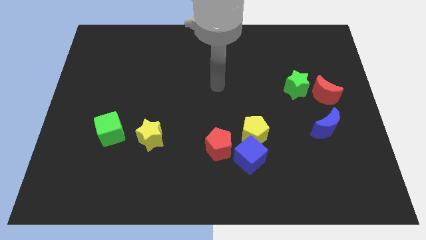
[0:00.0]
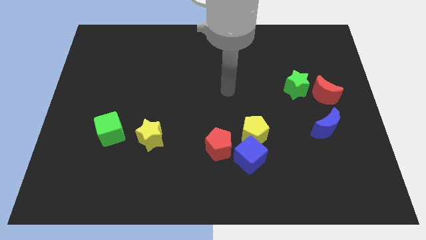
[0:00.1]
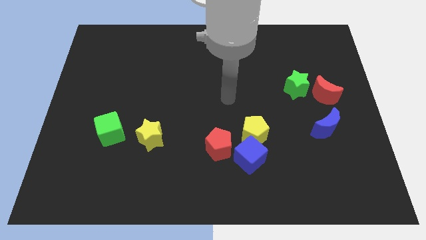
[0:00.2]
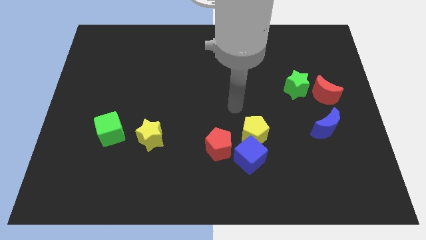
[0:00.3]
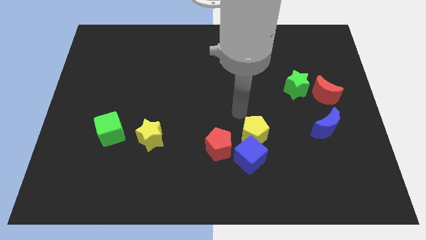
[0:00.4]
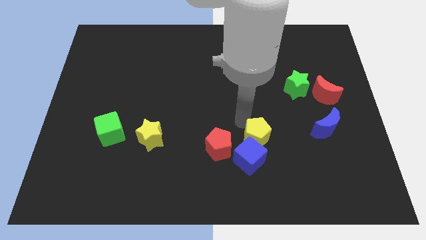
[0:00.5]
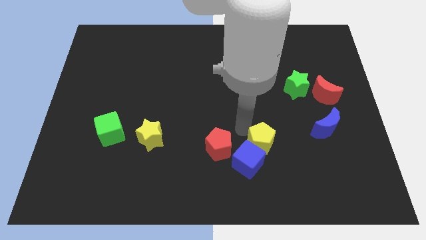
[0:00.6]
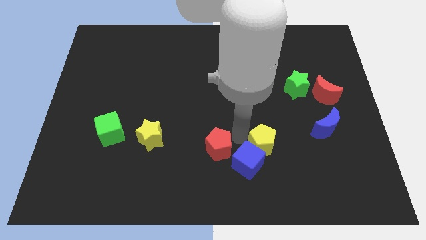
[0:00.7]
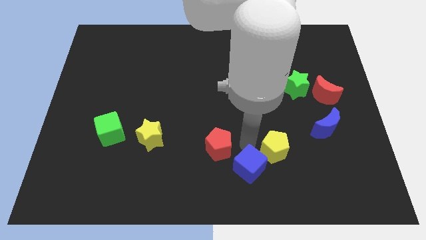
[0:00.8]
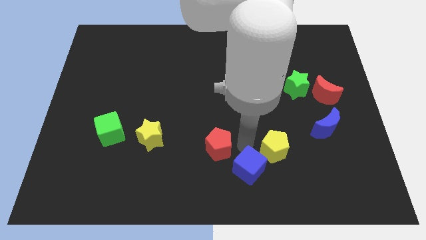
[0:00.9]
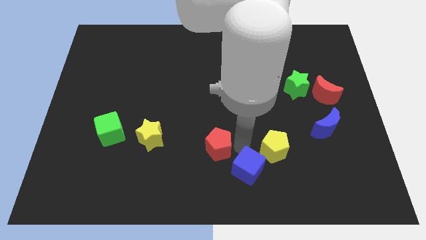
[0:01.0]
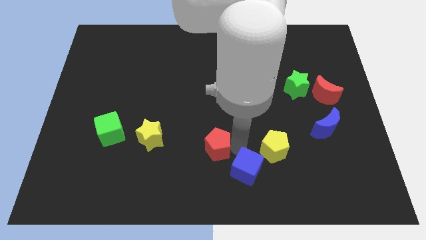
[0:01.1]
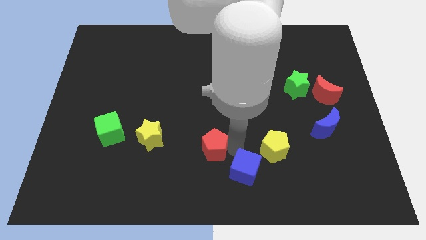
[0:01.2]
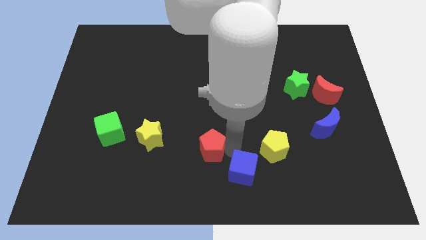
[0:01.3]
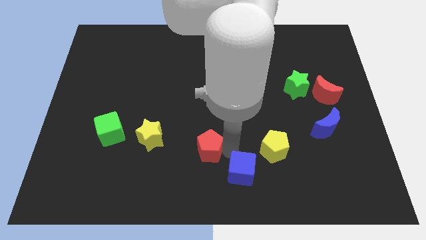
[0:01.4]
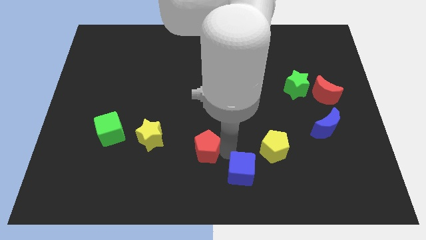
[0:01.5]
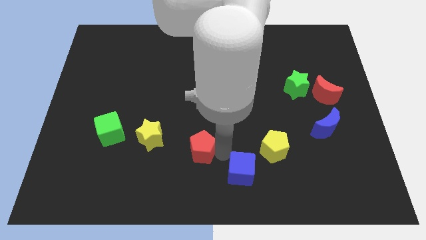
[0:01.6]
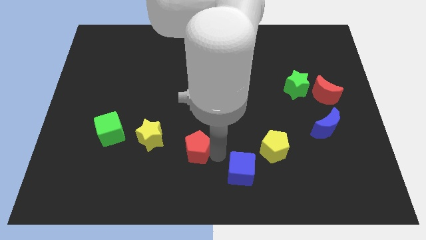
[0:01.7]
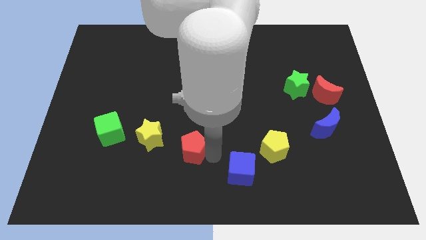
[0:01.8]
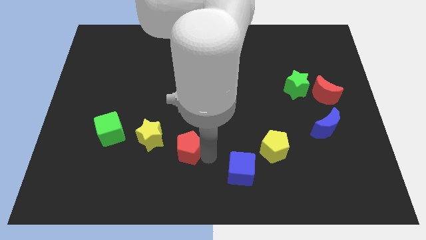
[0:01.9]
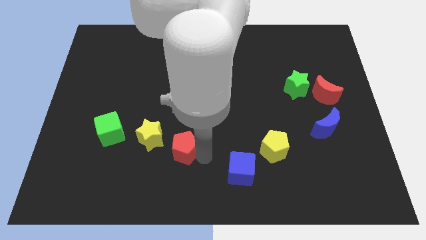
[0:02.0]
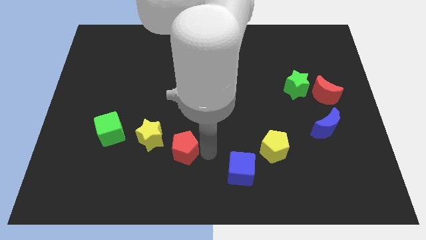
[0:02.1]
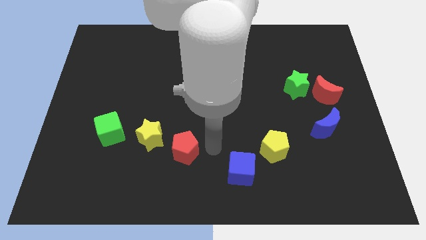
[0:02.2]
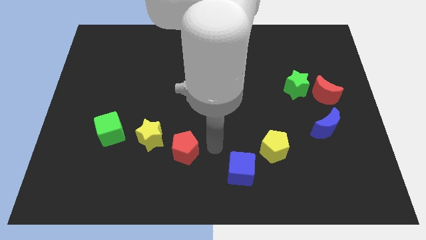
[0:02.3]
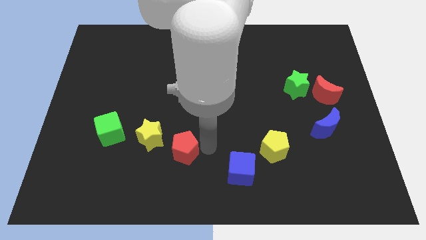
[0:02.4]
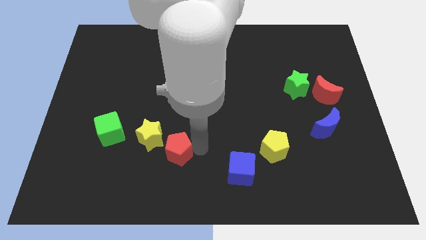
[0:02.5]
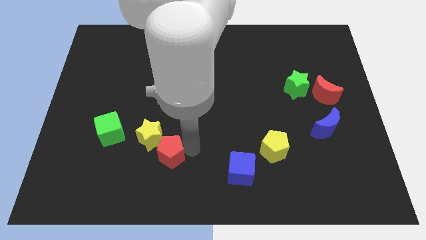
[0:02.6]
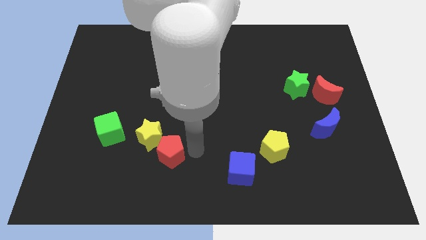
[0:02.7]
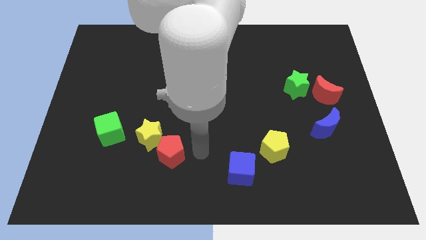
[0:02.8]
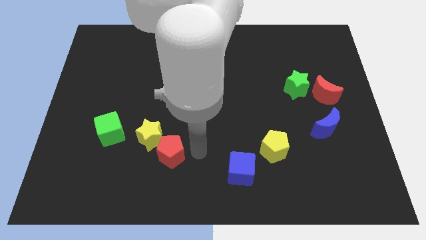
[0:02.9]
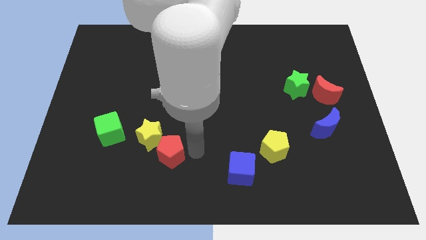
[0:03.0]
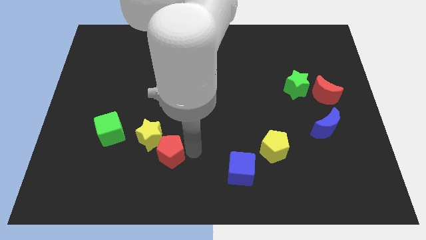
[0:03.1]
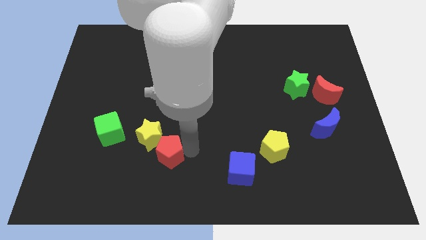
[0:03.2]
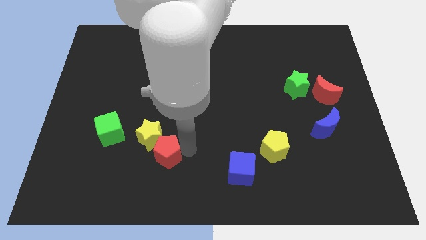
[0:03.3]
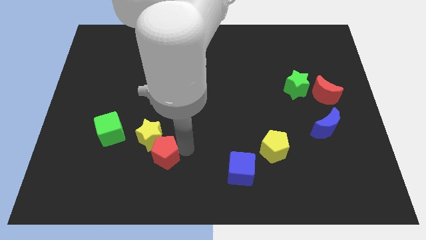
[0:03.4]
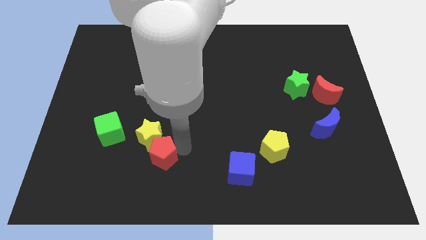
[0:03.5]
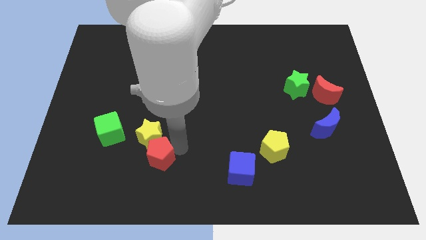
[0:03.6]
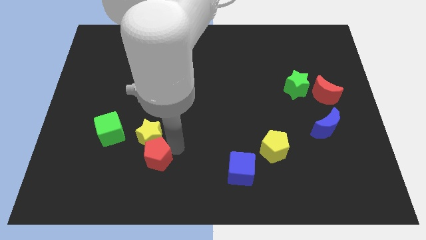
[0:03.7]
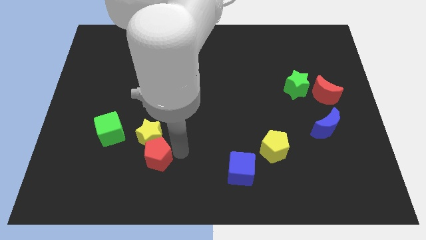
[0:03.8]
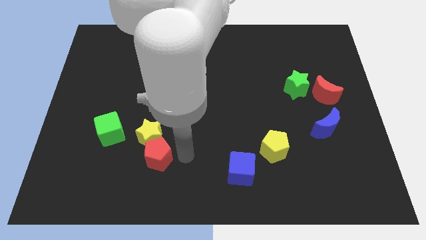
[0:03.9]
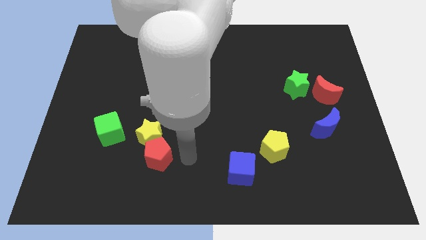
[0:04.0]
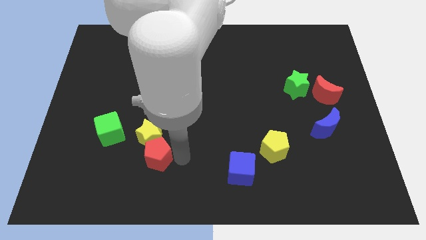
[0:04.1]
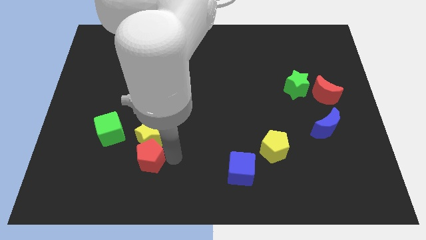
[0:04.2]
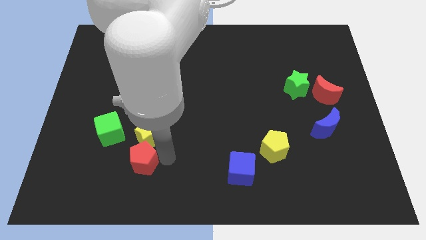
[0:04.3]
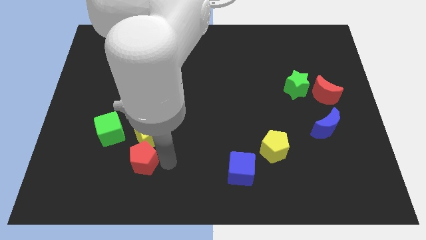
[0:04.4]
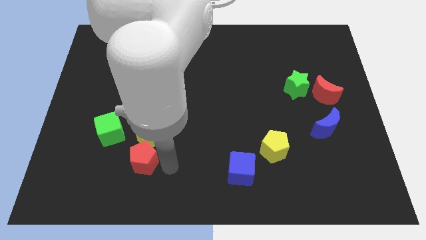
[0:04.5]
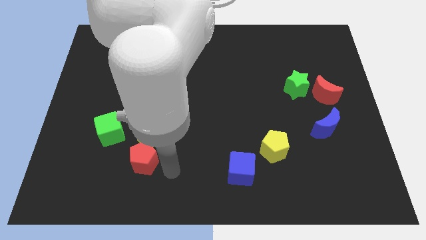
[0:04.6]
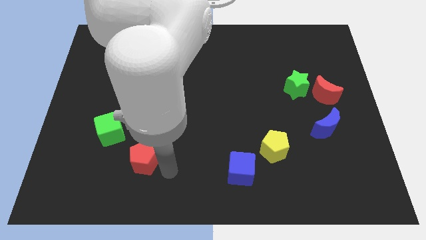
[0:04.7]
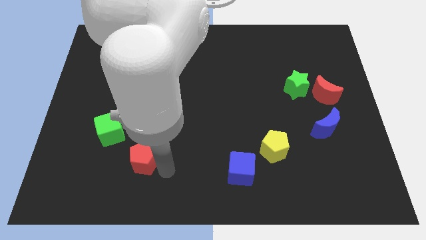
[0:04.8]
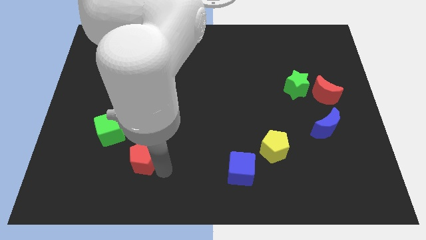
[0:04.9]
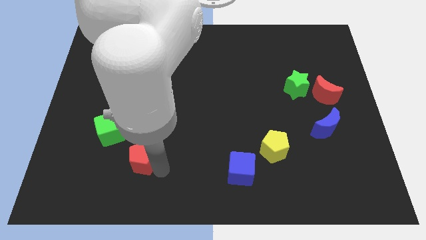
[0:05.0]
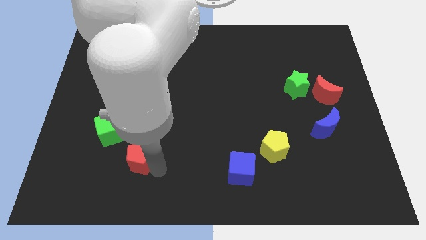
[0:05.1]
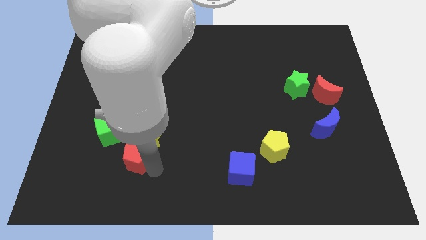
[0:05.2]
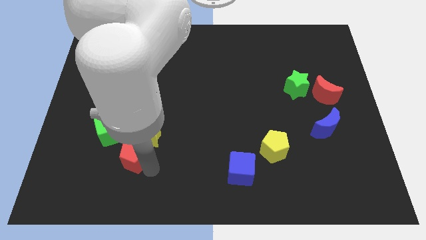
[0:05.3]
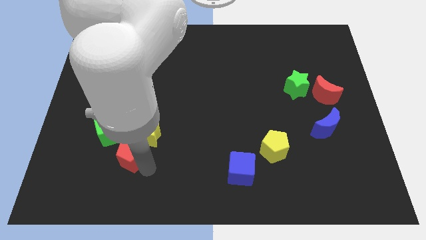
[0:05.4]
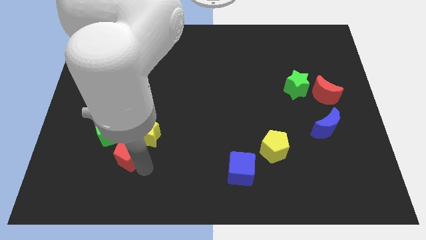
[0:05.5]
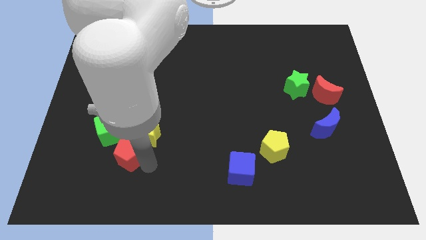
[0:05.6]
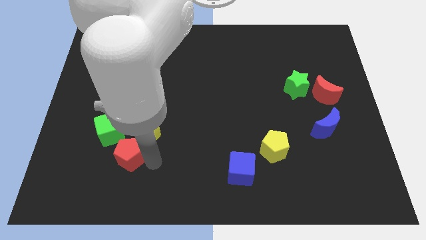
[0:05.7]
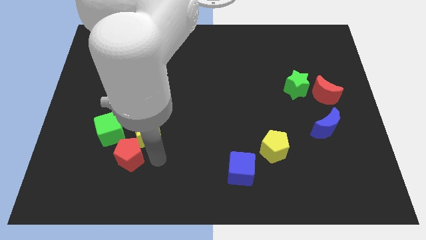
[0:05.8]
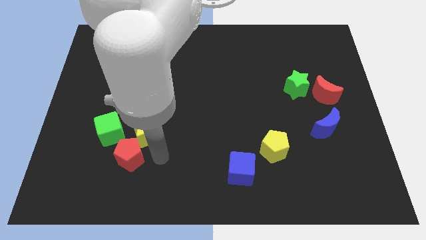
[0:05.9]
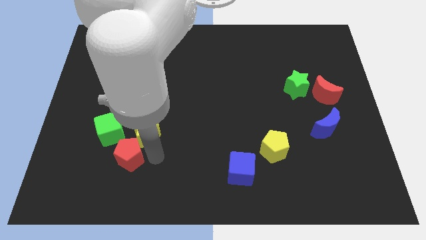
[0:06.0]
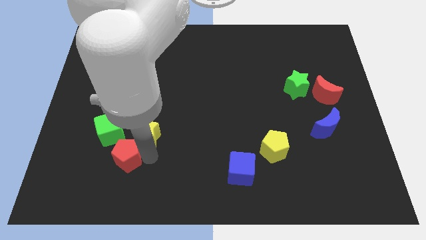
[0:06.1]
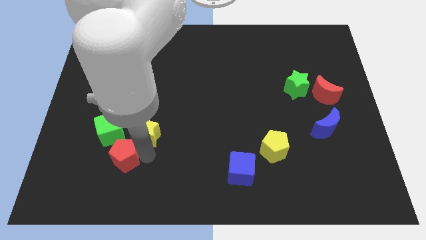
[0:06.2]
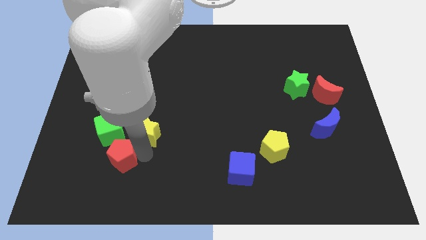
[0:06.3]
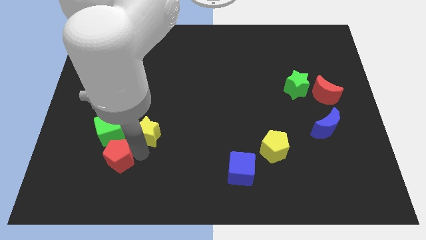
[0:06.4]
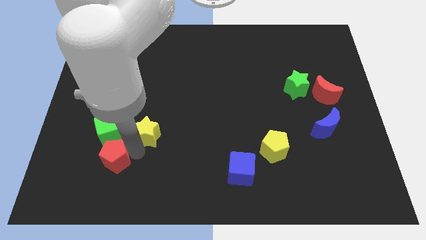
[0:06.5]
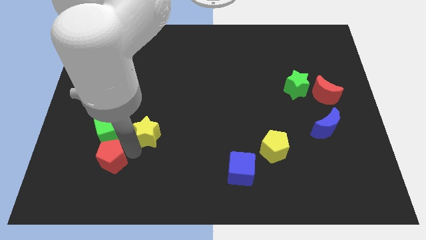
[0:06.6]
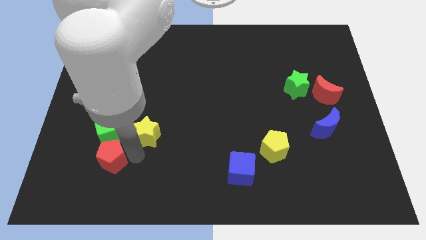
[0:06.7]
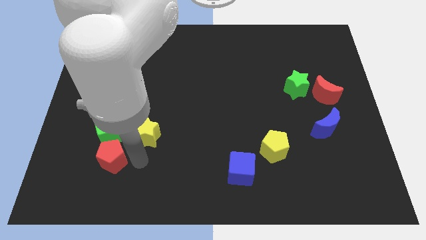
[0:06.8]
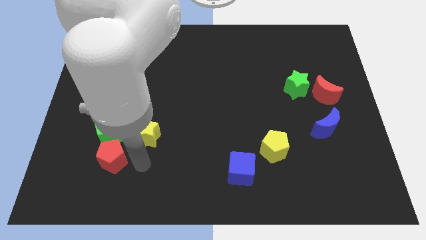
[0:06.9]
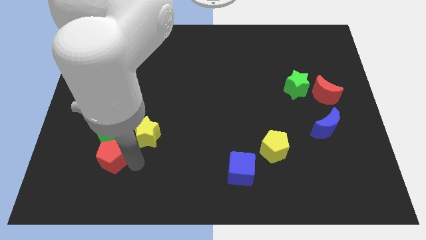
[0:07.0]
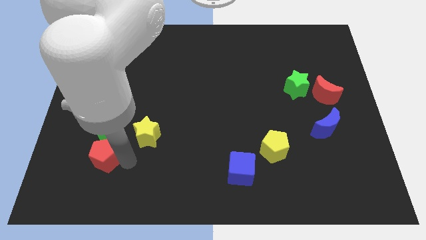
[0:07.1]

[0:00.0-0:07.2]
push the red pentagon to the bottom left side of the green cube
